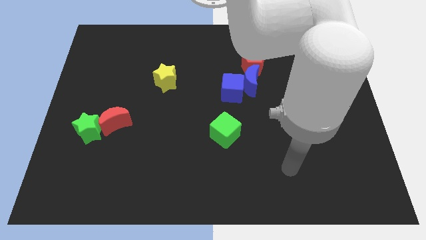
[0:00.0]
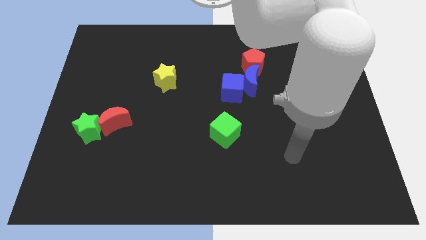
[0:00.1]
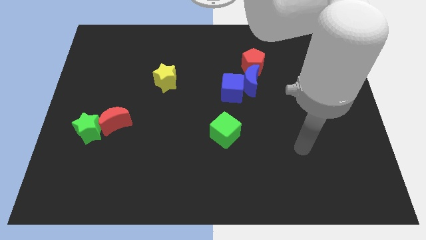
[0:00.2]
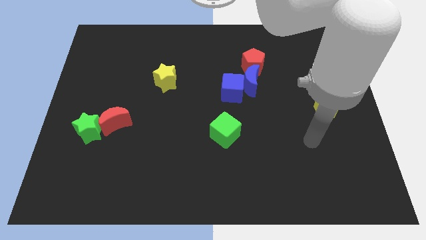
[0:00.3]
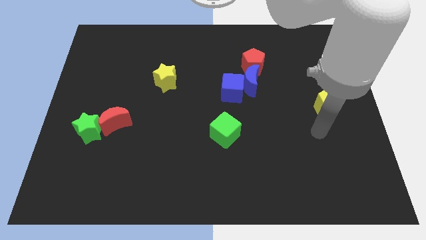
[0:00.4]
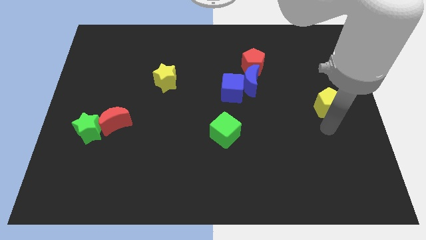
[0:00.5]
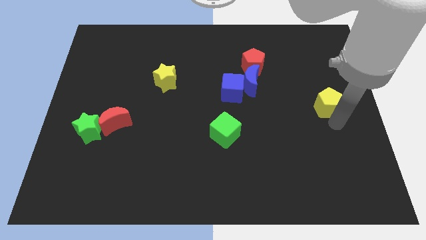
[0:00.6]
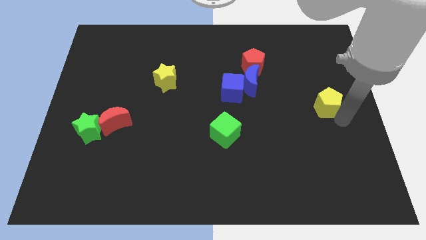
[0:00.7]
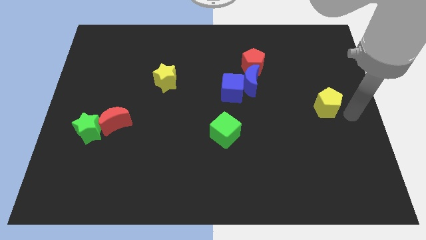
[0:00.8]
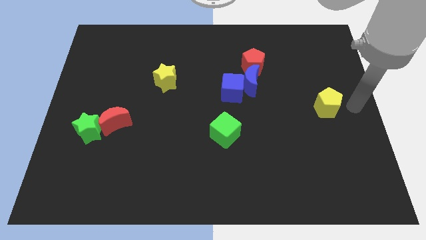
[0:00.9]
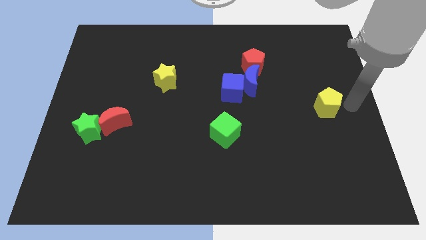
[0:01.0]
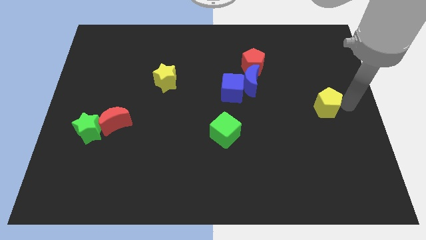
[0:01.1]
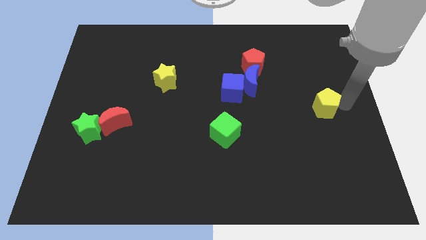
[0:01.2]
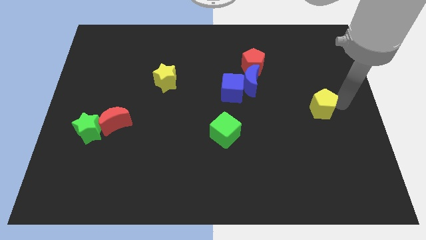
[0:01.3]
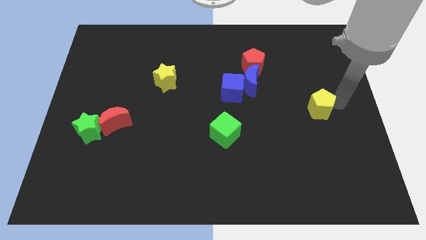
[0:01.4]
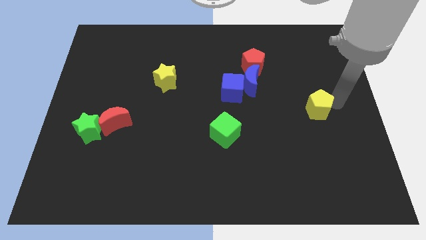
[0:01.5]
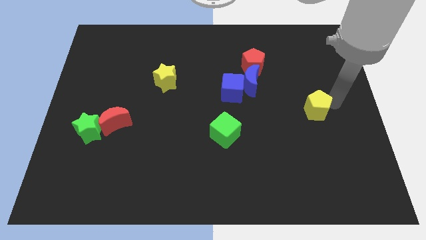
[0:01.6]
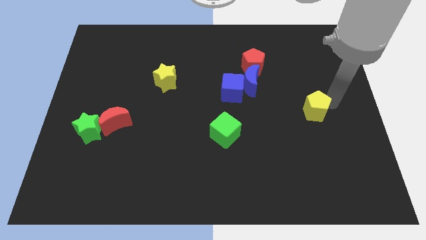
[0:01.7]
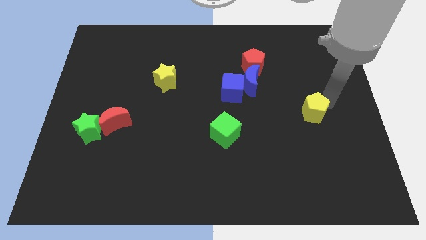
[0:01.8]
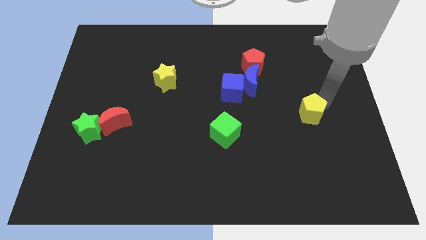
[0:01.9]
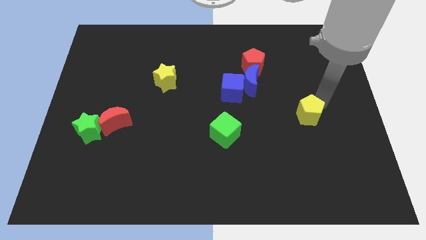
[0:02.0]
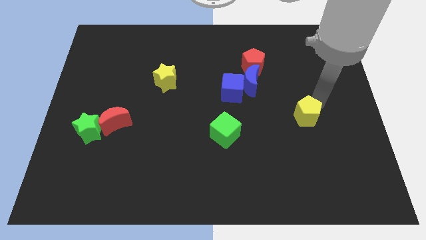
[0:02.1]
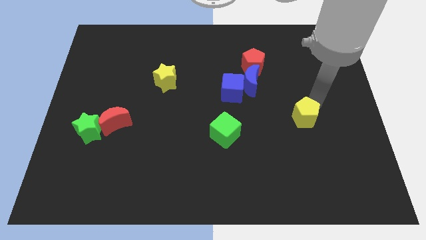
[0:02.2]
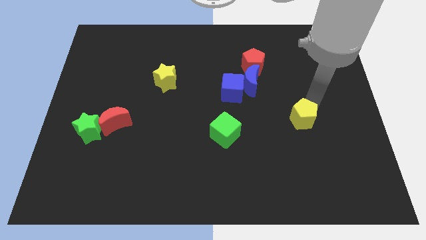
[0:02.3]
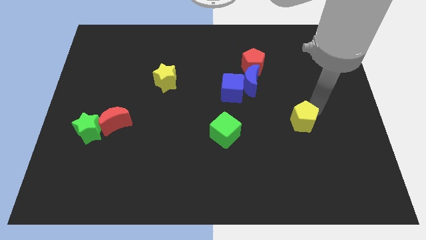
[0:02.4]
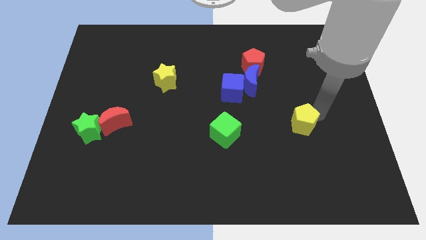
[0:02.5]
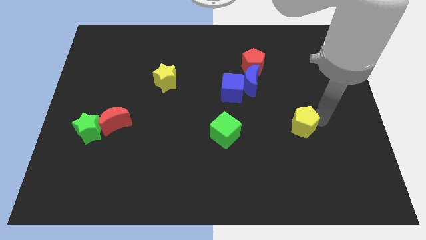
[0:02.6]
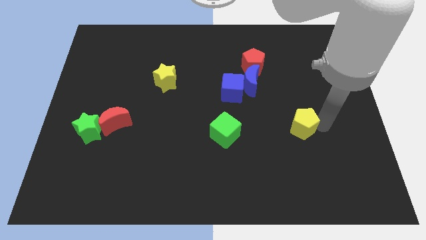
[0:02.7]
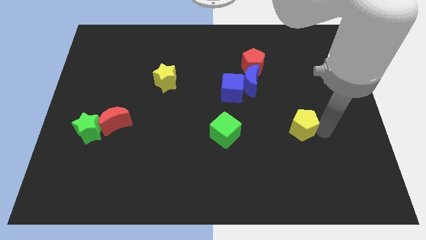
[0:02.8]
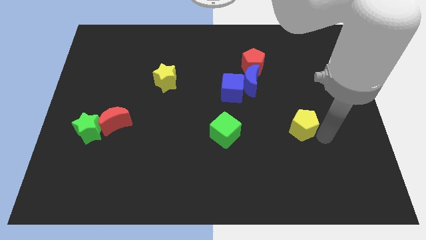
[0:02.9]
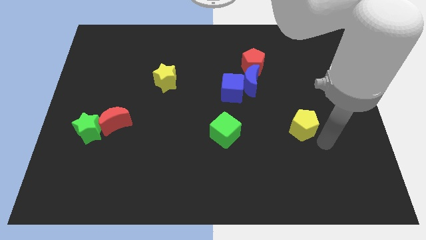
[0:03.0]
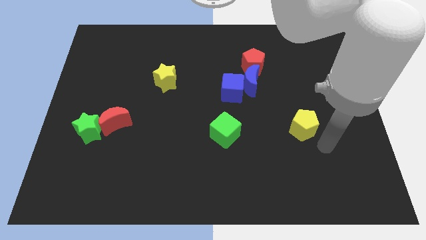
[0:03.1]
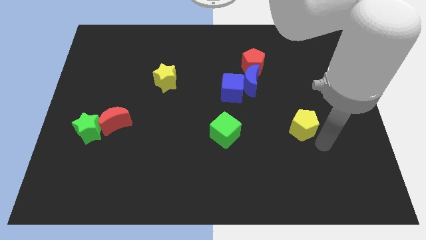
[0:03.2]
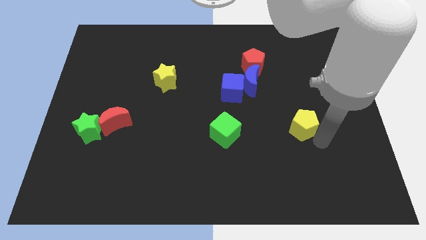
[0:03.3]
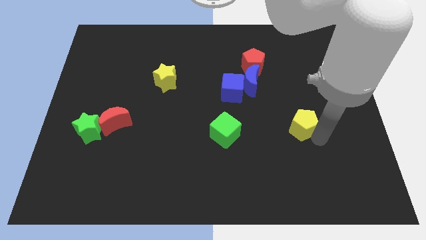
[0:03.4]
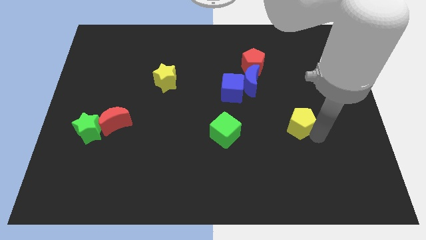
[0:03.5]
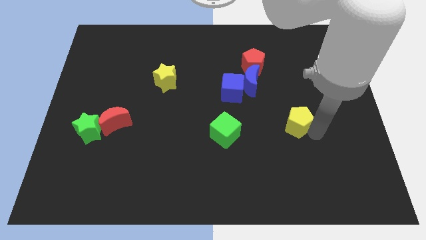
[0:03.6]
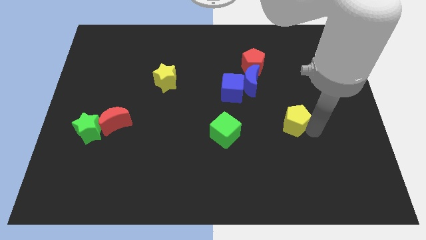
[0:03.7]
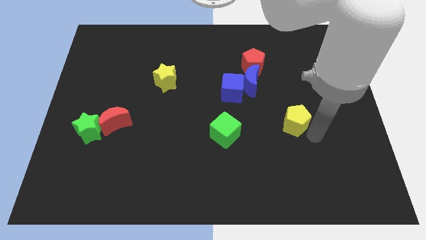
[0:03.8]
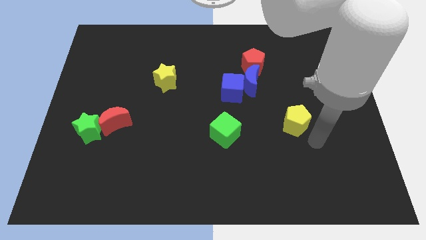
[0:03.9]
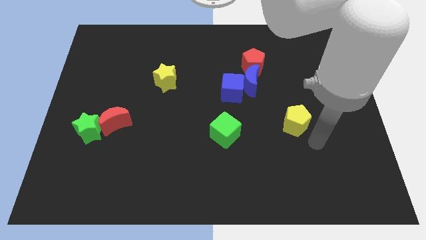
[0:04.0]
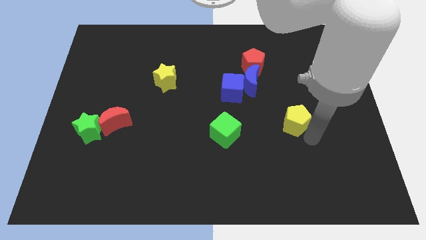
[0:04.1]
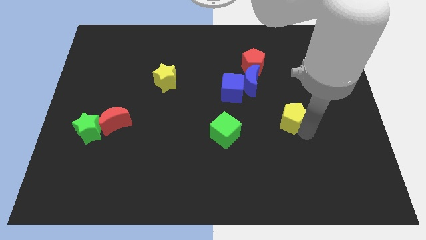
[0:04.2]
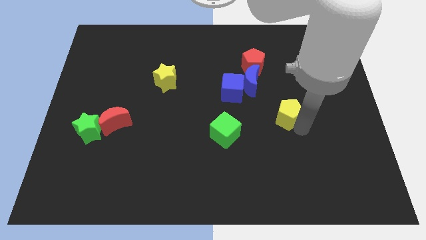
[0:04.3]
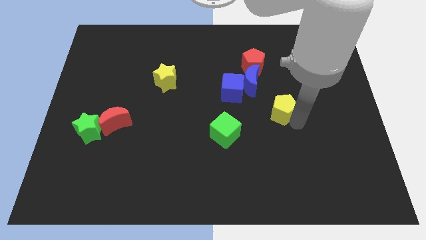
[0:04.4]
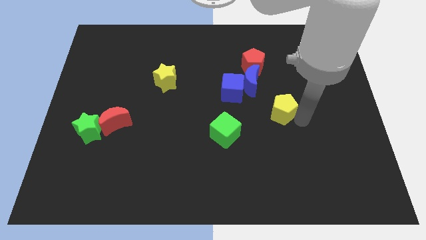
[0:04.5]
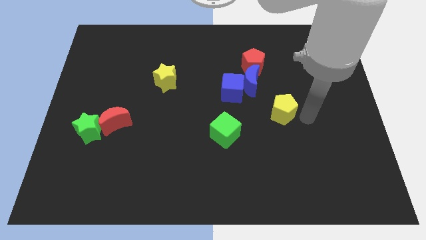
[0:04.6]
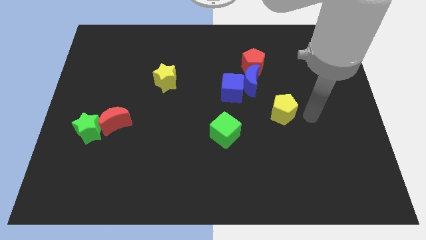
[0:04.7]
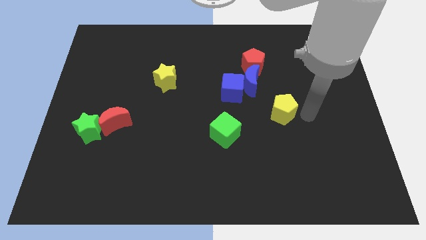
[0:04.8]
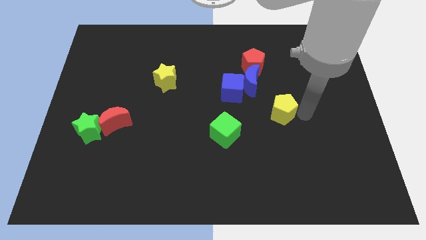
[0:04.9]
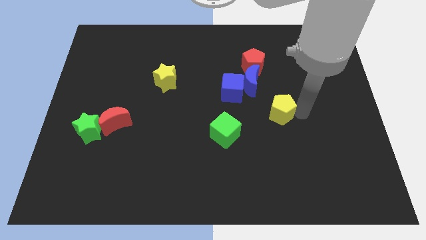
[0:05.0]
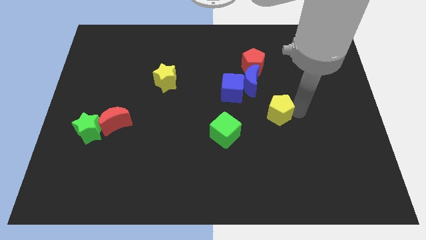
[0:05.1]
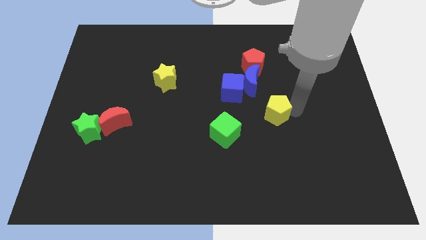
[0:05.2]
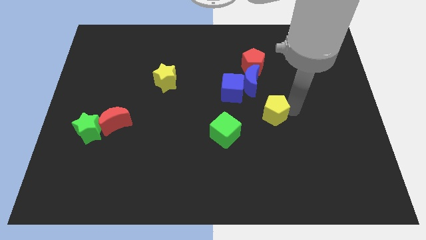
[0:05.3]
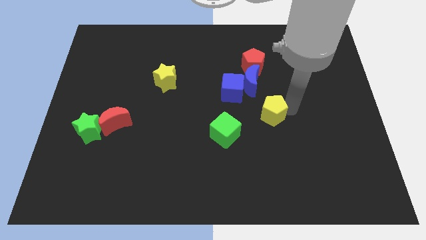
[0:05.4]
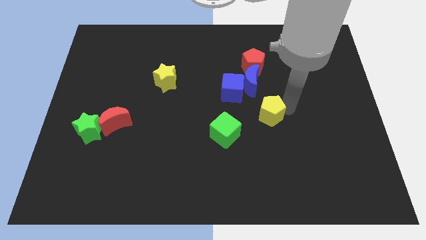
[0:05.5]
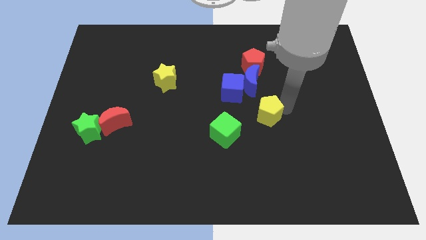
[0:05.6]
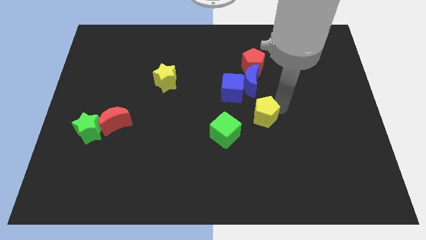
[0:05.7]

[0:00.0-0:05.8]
slide the yellow pentagon to the middle of the board
